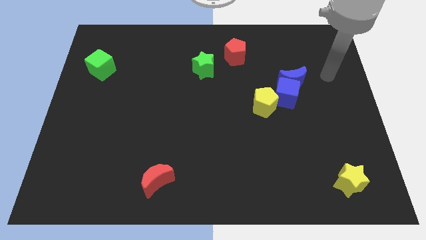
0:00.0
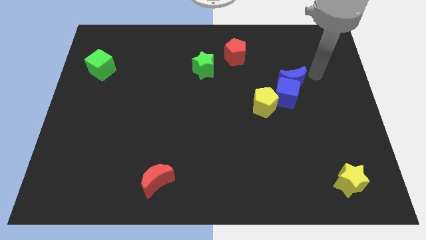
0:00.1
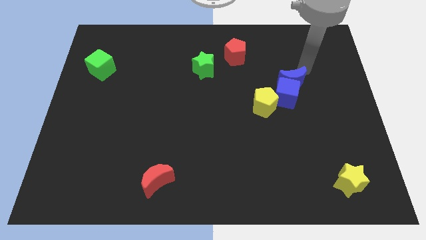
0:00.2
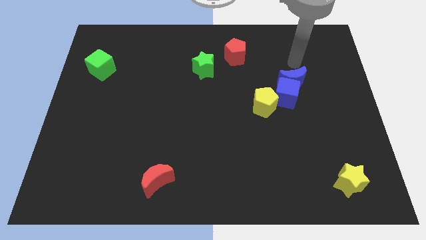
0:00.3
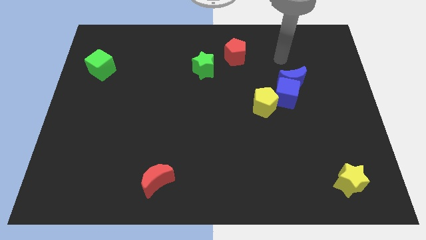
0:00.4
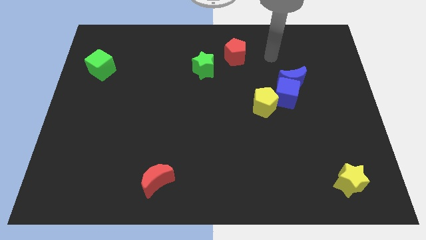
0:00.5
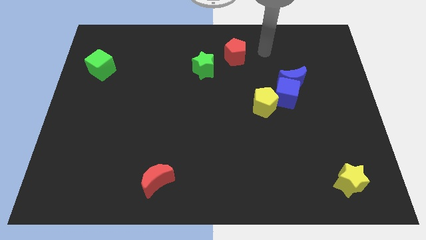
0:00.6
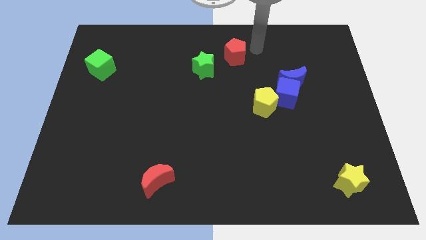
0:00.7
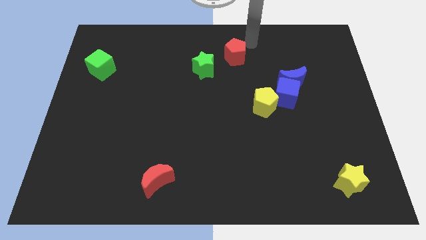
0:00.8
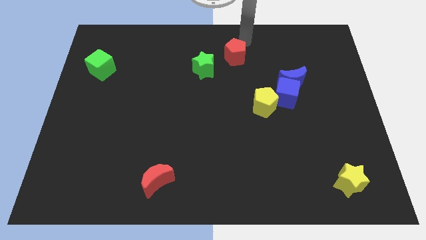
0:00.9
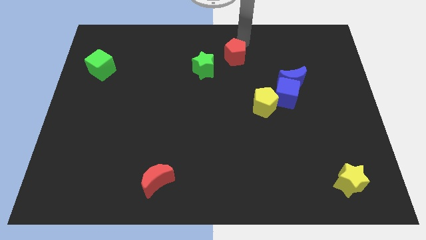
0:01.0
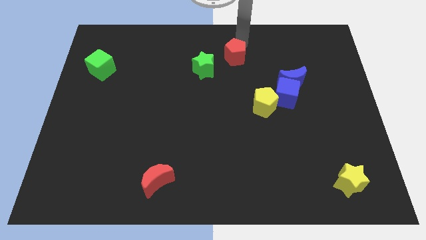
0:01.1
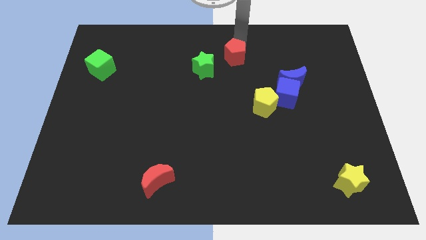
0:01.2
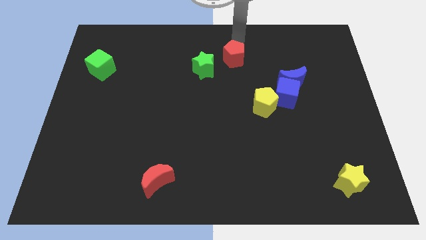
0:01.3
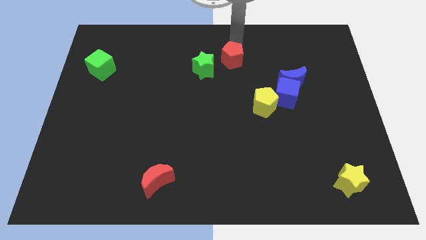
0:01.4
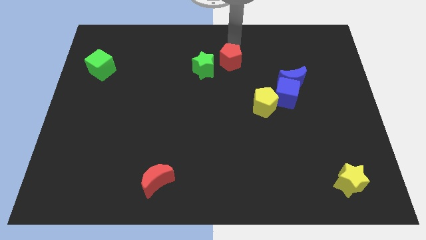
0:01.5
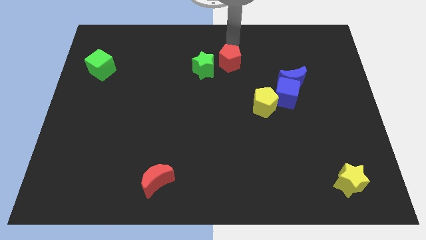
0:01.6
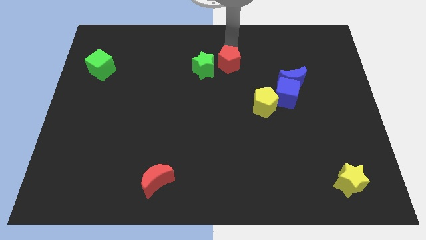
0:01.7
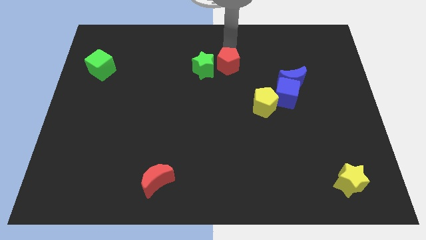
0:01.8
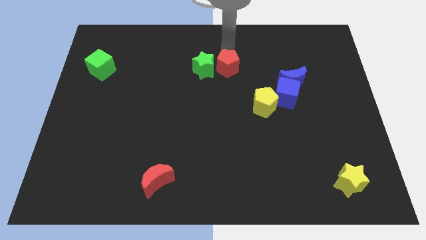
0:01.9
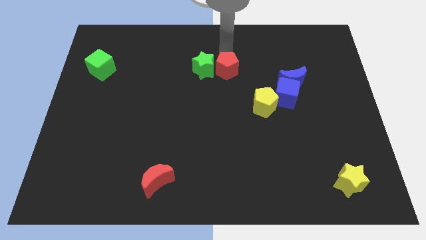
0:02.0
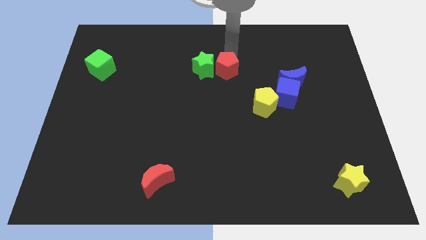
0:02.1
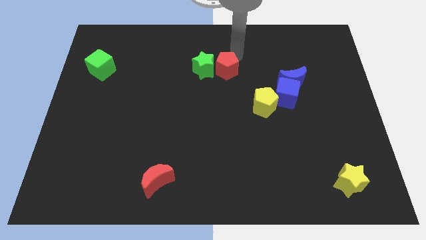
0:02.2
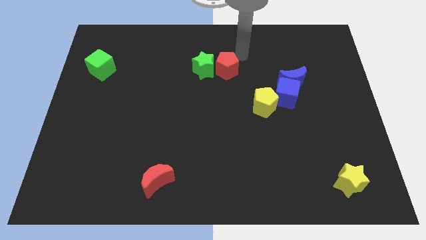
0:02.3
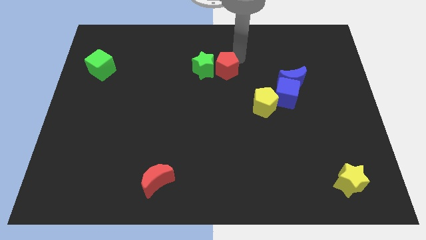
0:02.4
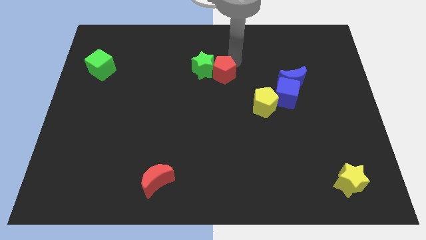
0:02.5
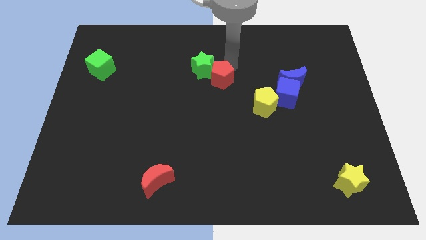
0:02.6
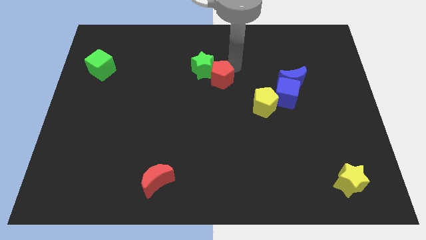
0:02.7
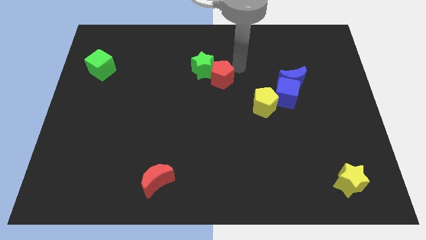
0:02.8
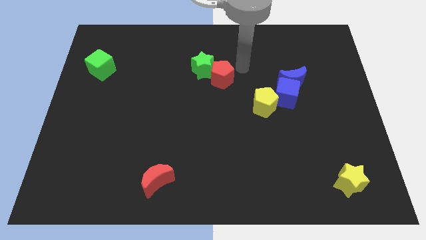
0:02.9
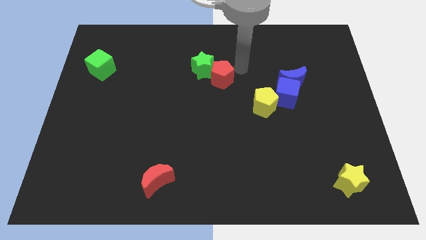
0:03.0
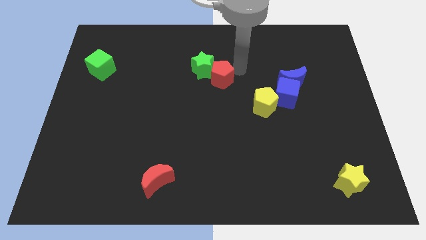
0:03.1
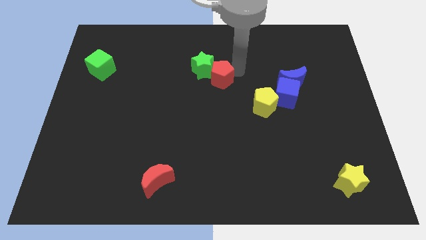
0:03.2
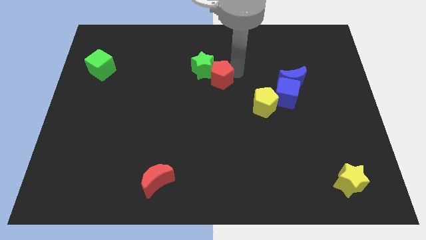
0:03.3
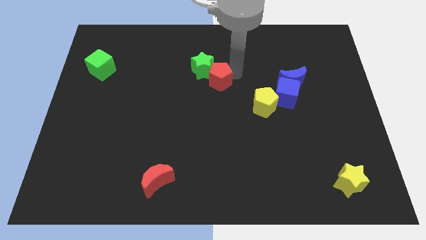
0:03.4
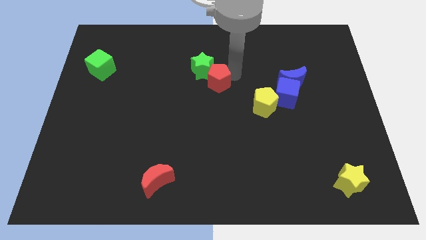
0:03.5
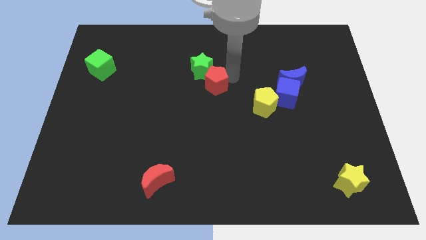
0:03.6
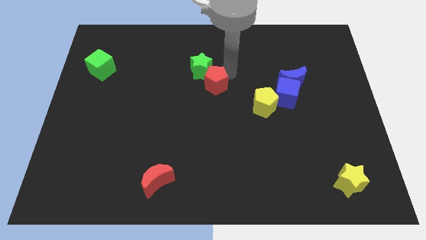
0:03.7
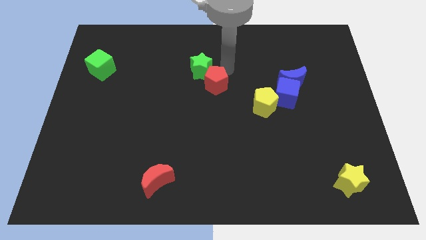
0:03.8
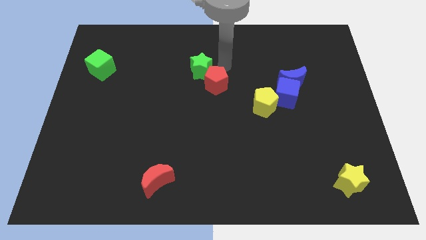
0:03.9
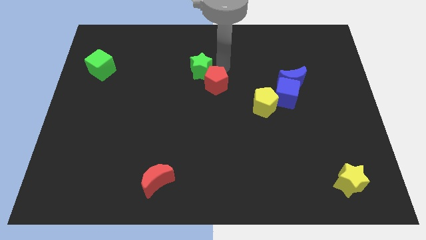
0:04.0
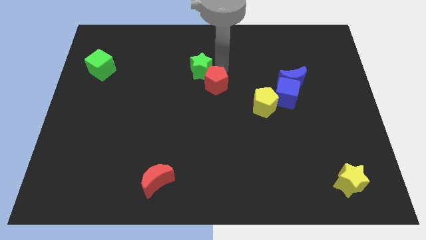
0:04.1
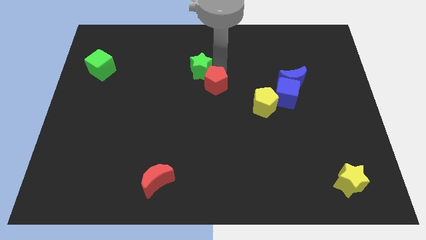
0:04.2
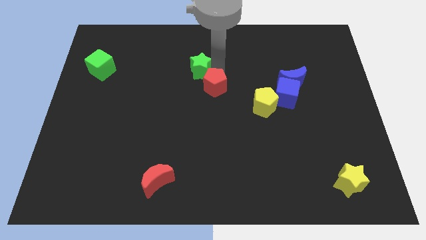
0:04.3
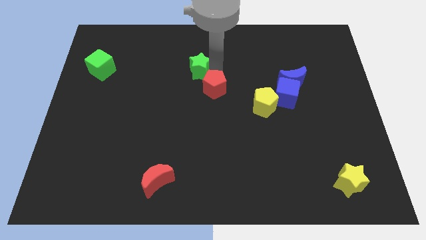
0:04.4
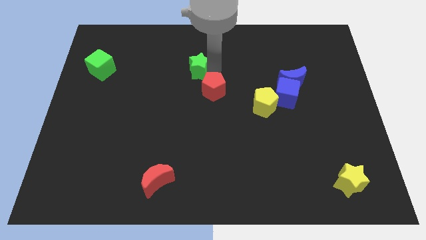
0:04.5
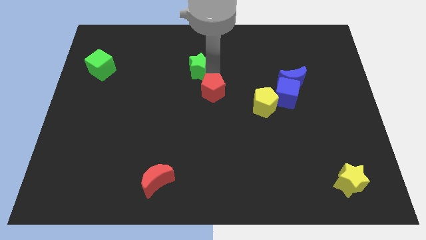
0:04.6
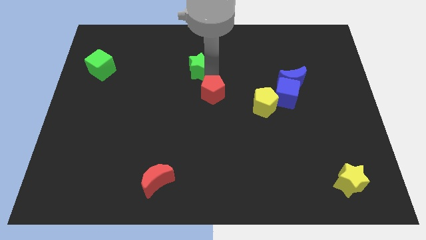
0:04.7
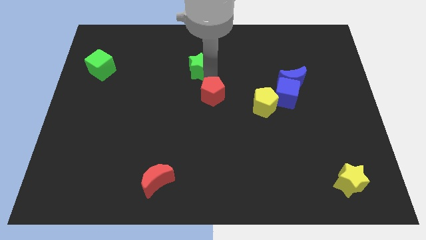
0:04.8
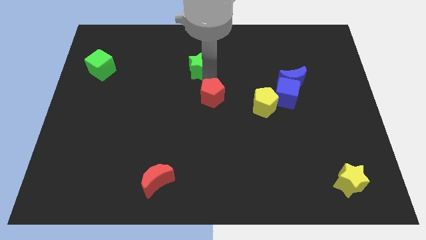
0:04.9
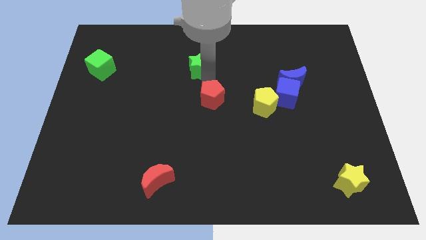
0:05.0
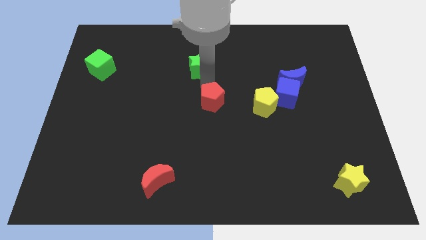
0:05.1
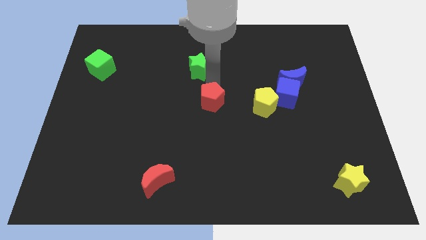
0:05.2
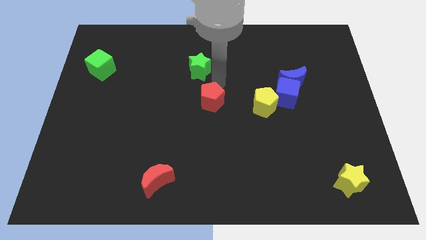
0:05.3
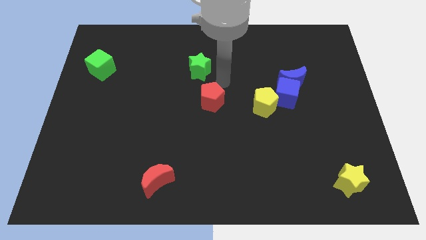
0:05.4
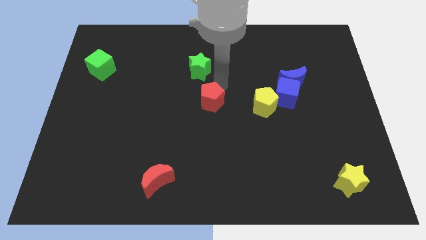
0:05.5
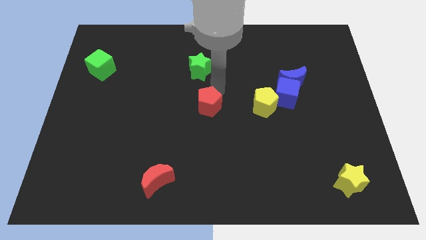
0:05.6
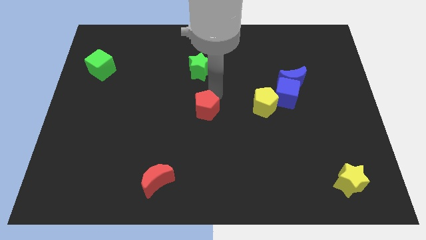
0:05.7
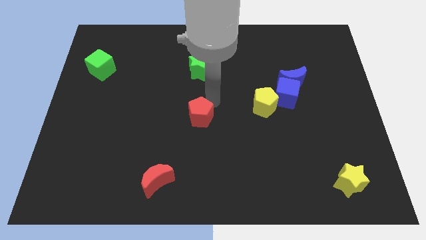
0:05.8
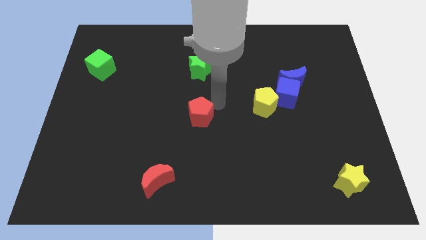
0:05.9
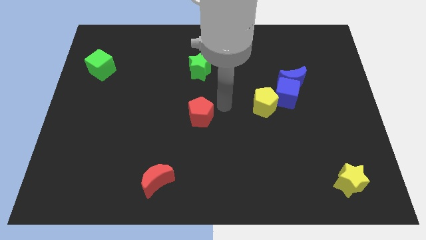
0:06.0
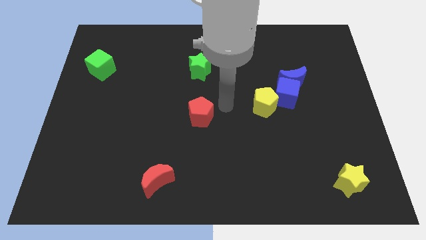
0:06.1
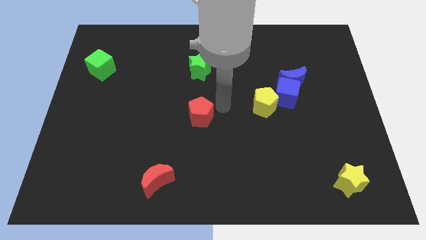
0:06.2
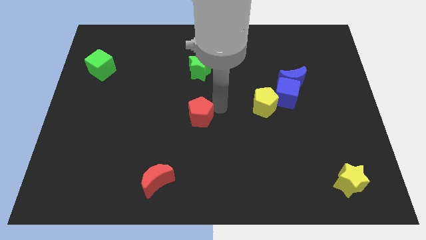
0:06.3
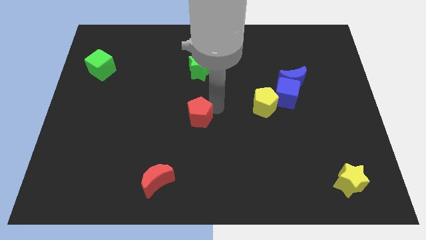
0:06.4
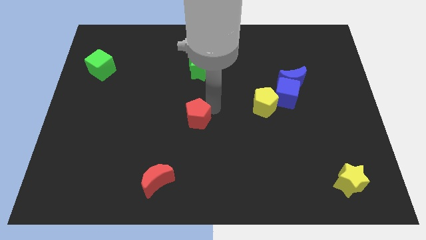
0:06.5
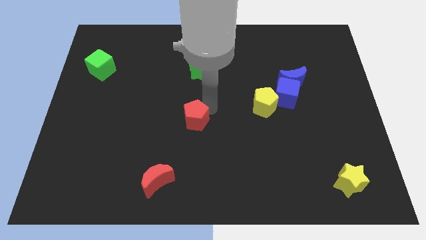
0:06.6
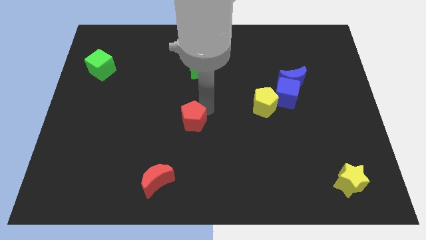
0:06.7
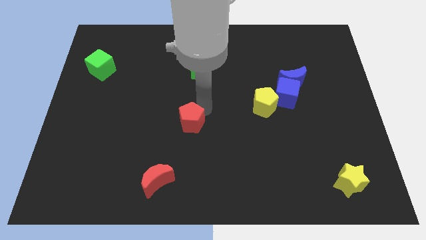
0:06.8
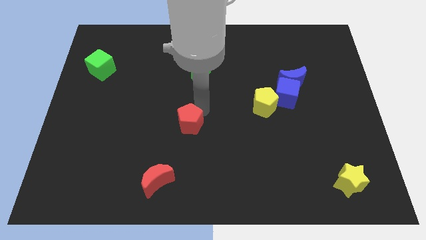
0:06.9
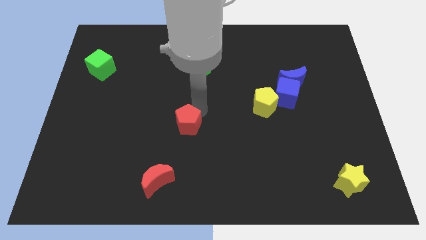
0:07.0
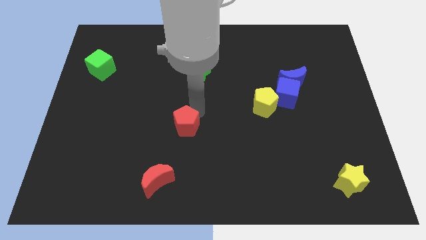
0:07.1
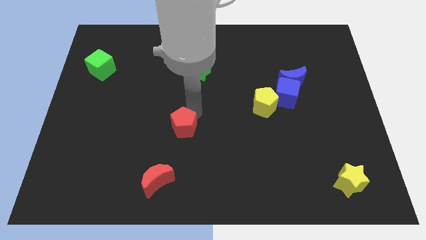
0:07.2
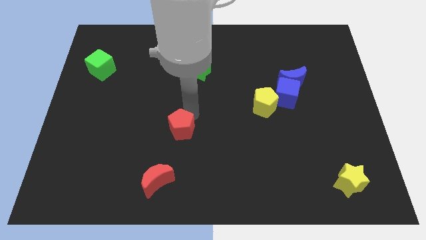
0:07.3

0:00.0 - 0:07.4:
push the red pentagon to the top of the red moon
